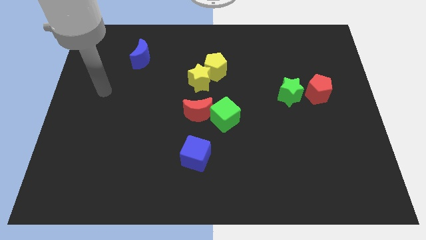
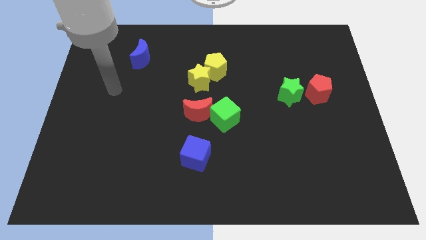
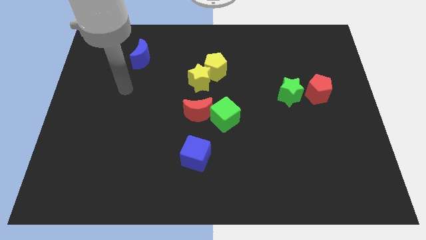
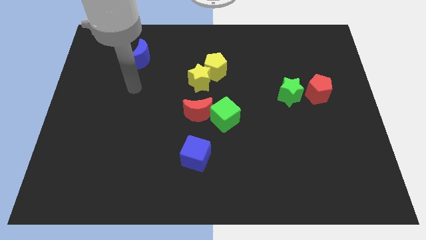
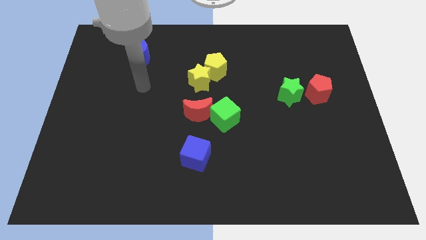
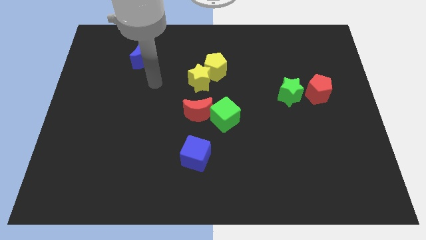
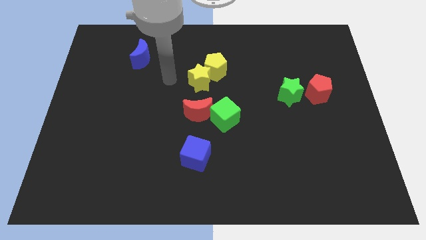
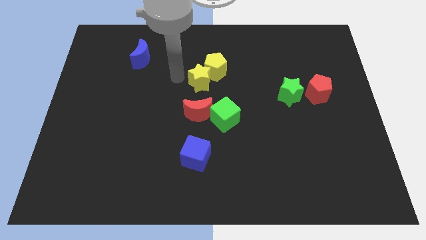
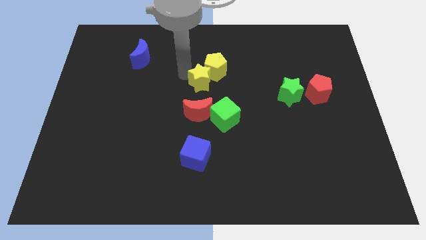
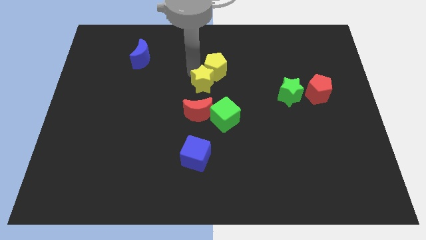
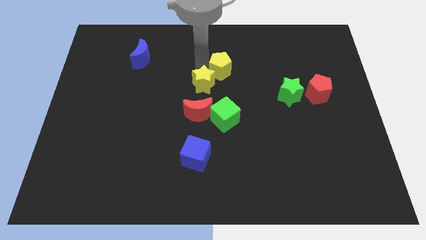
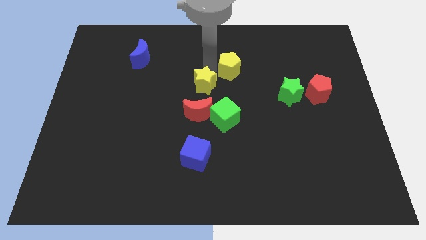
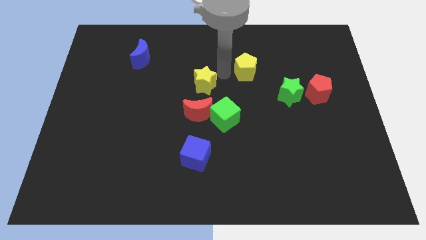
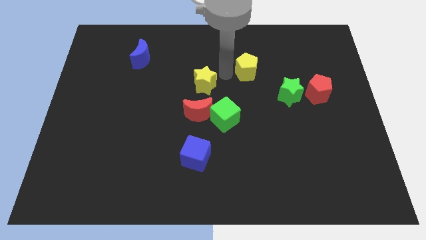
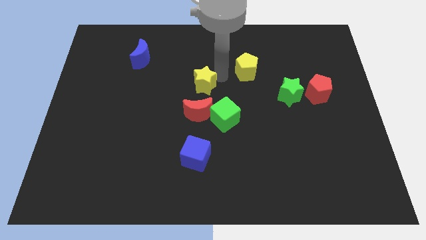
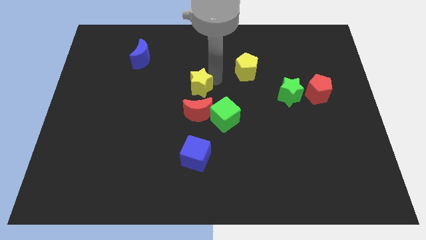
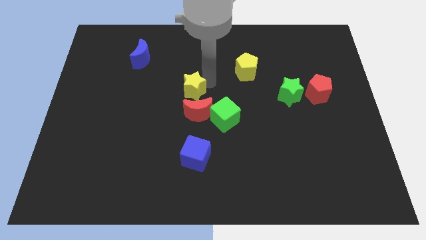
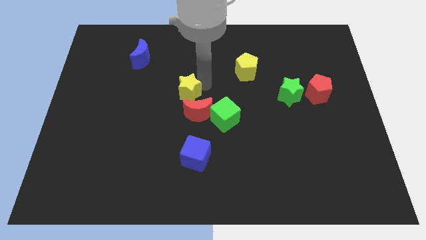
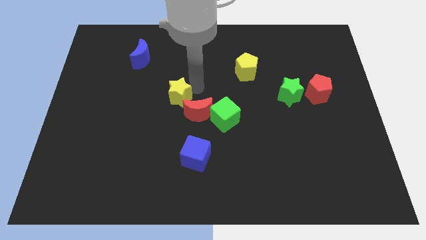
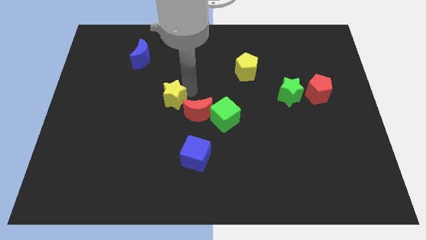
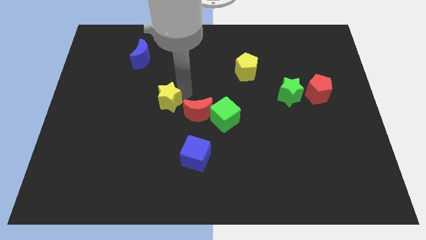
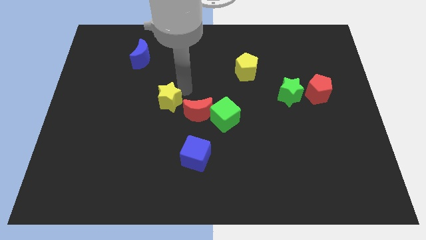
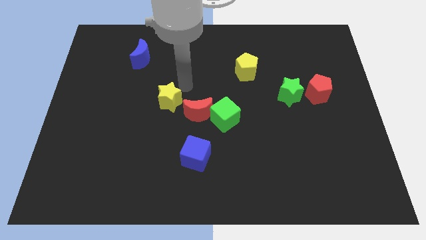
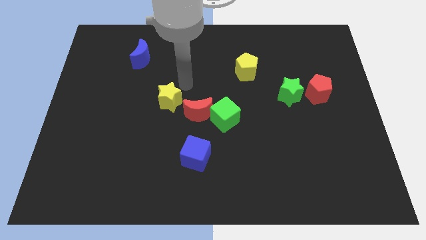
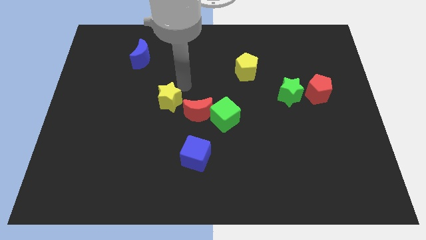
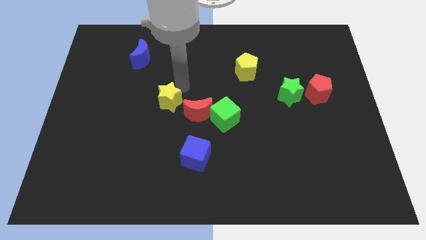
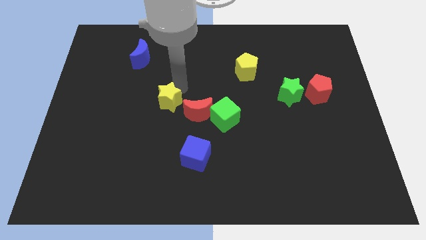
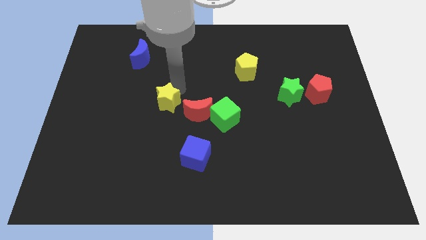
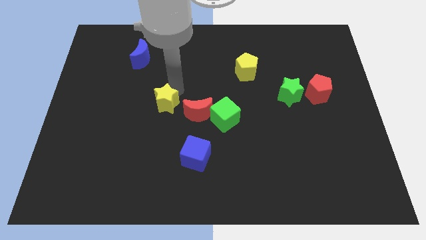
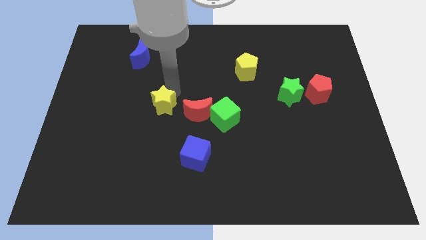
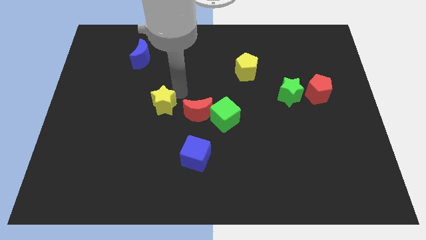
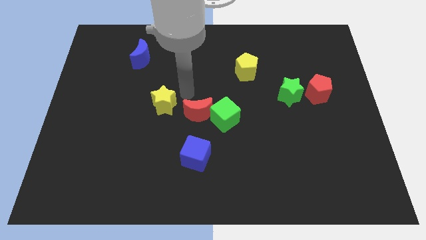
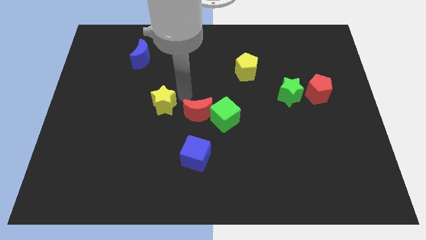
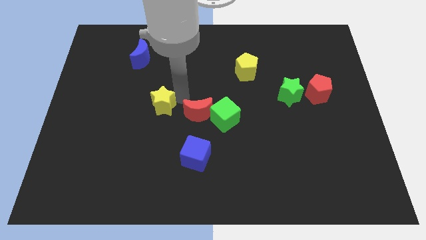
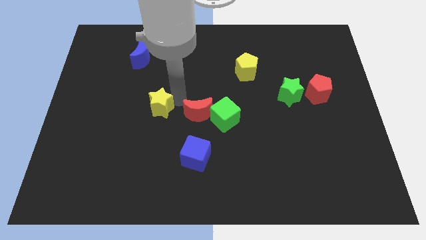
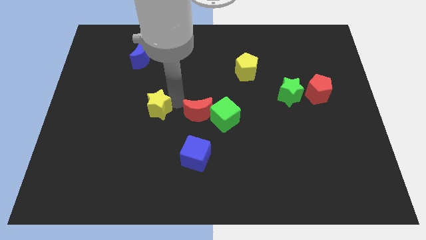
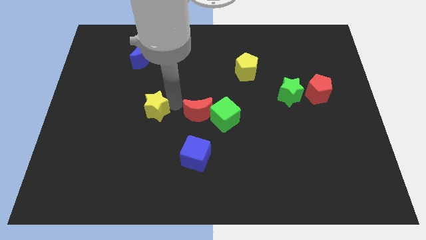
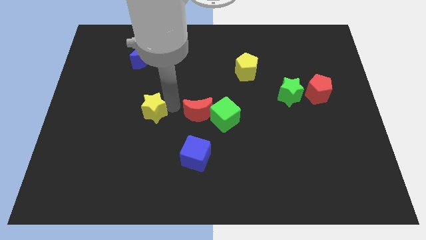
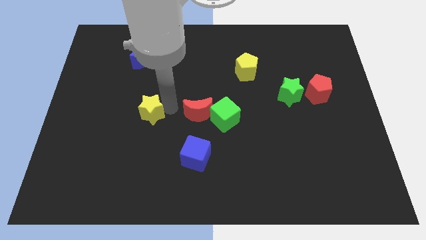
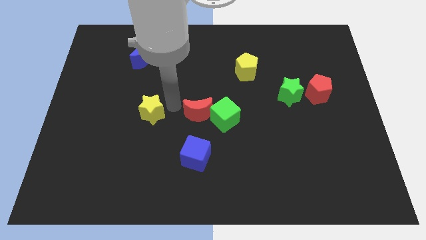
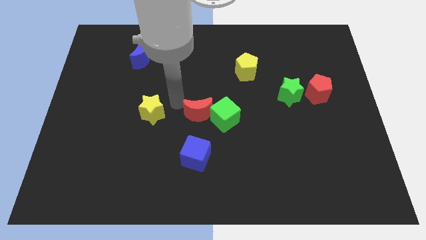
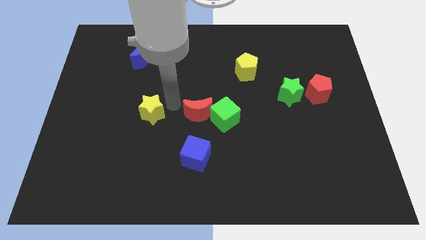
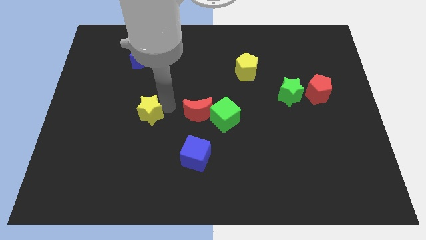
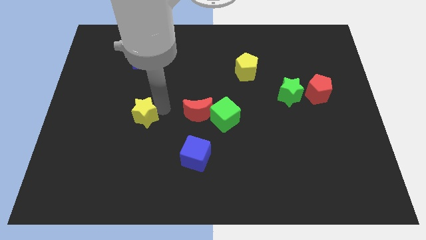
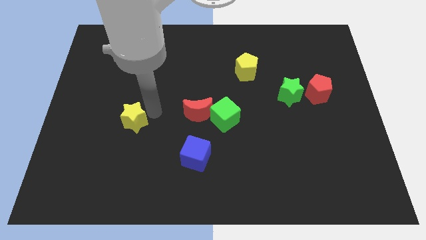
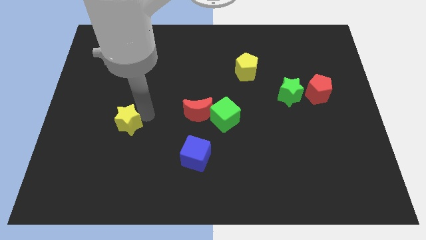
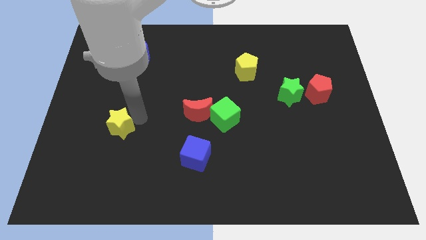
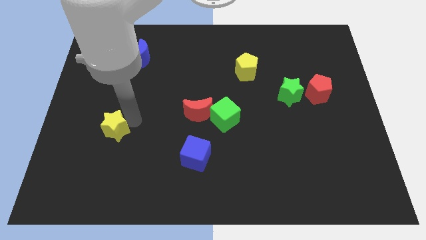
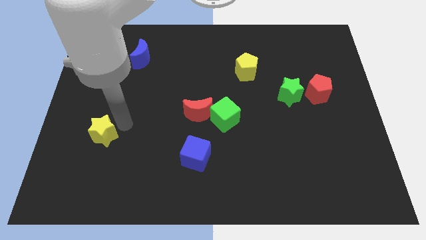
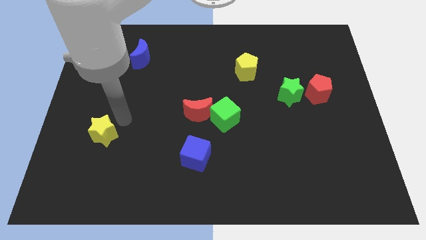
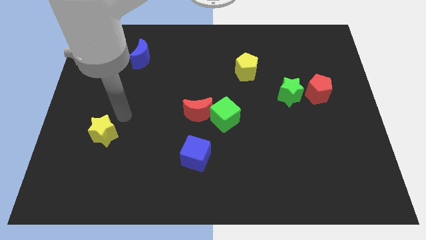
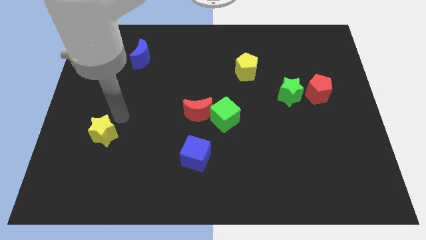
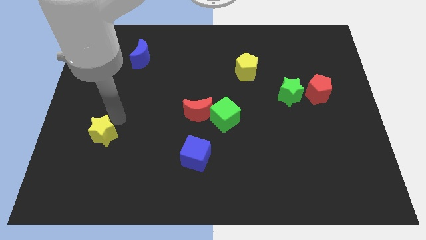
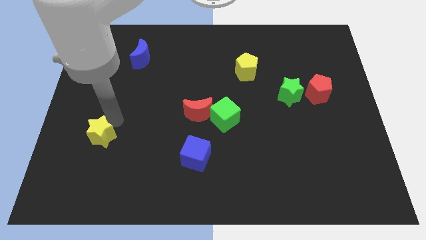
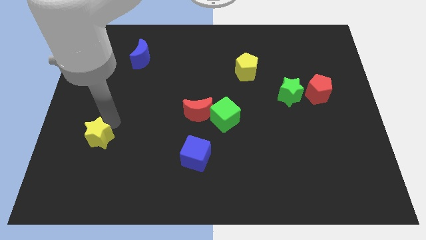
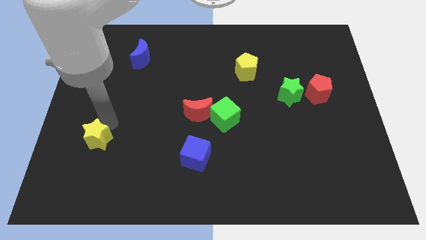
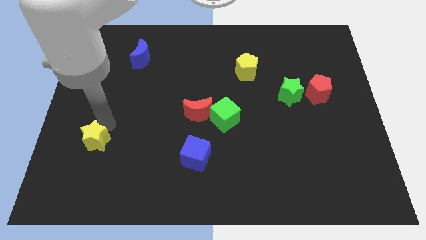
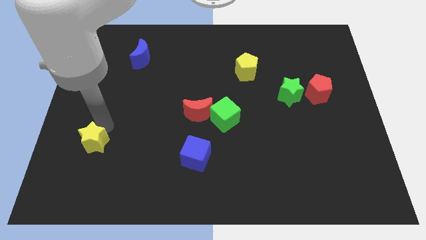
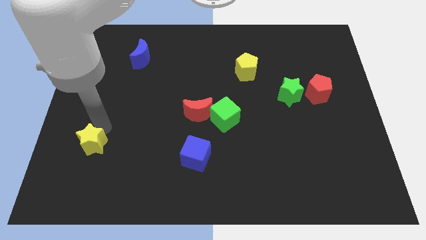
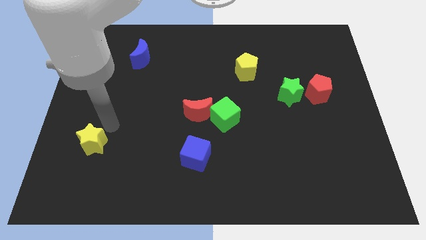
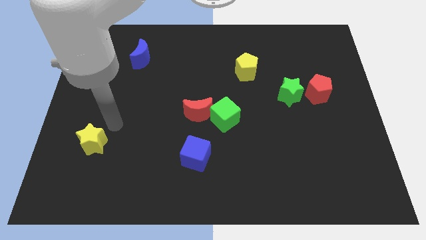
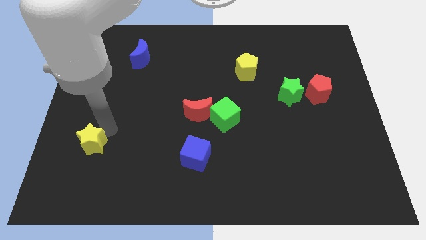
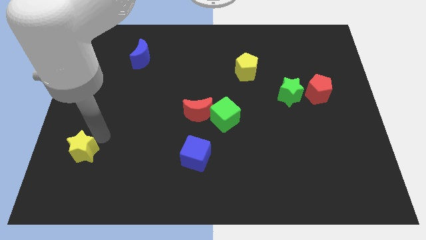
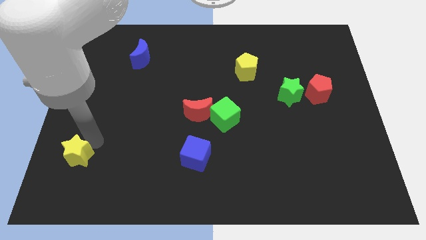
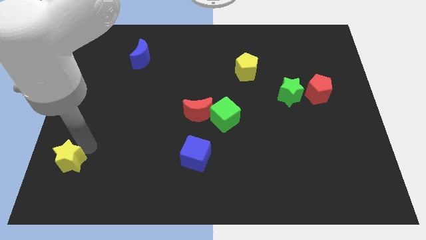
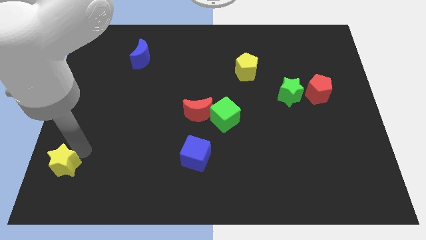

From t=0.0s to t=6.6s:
put the yellow star to the bottom left

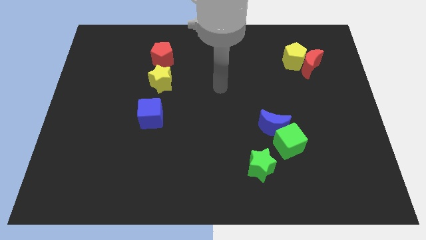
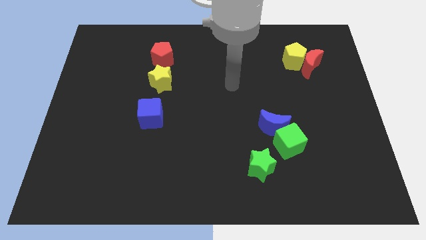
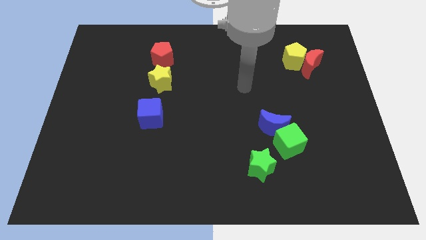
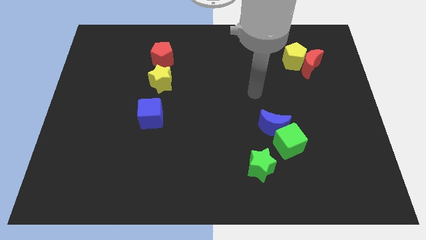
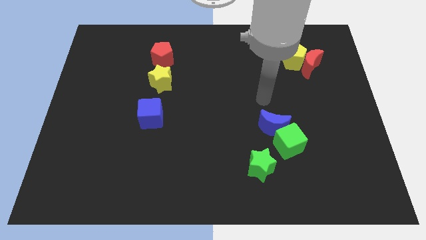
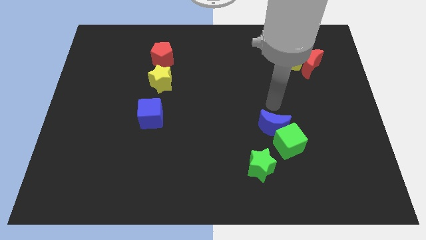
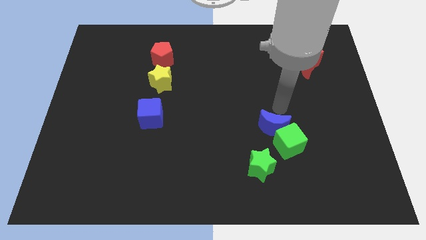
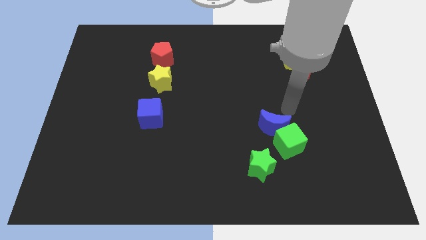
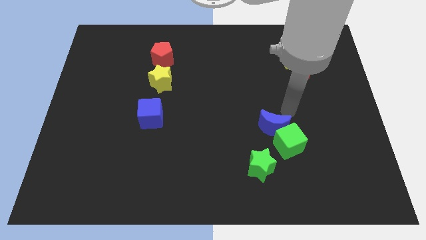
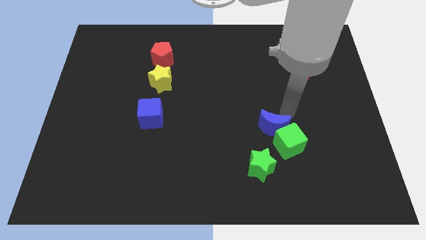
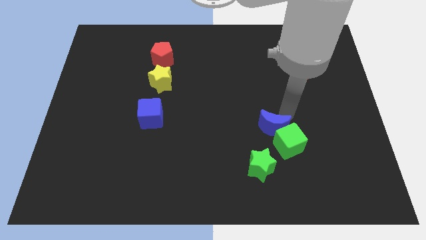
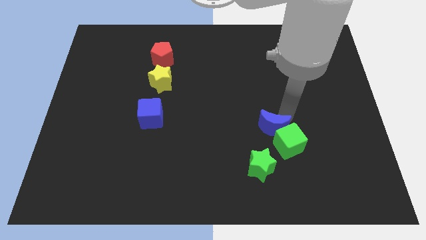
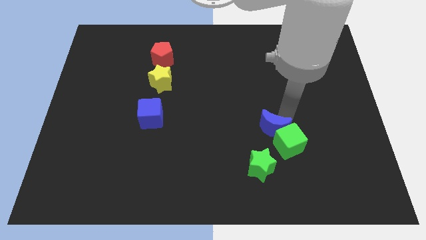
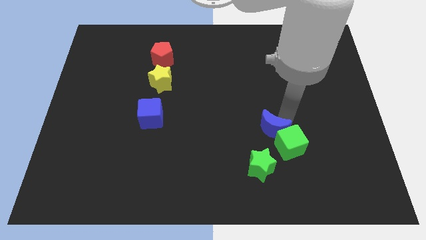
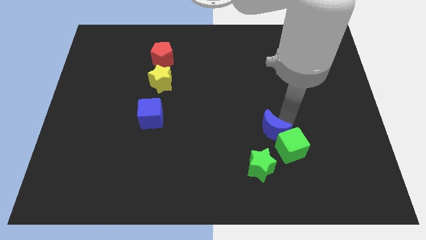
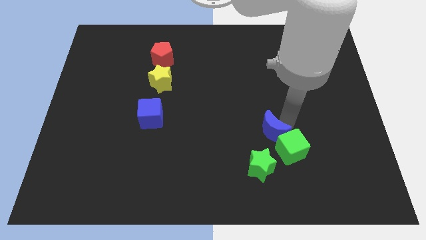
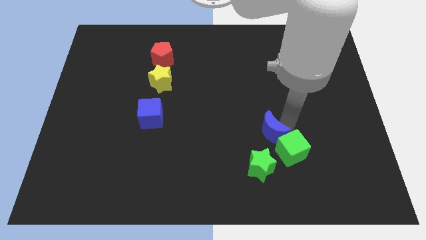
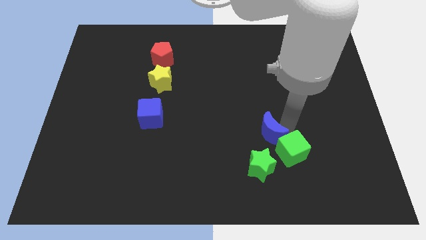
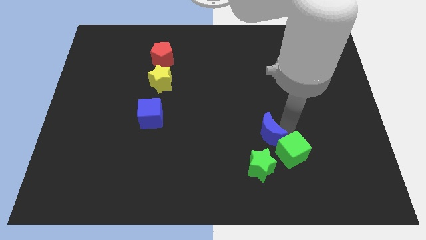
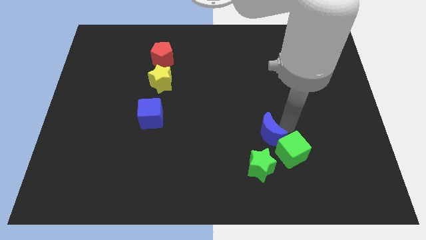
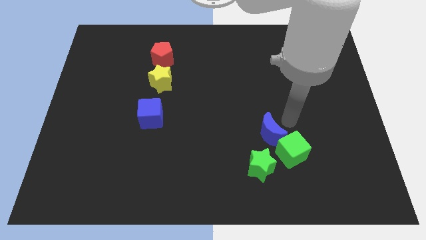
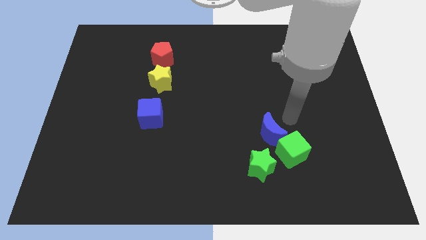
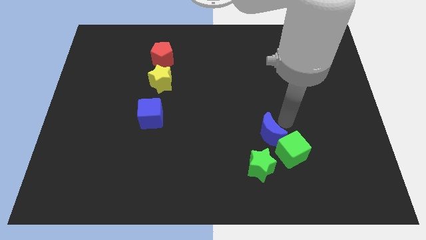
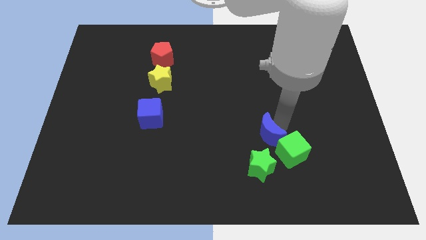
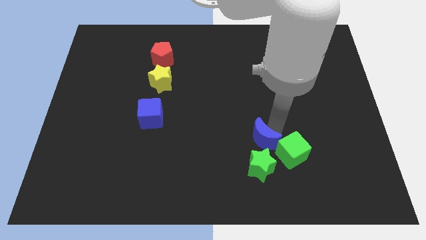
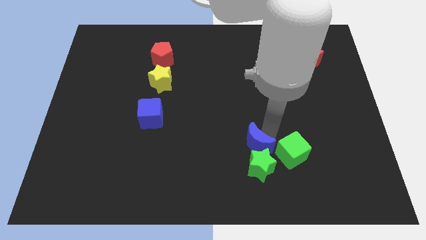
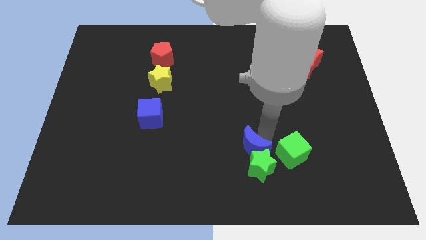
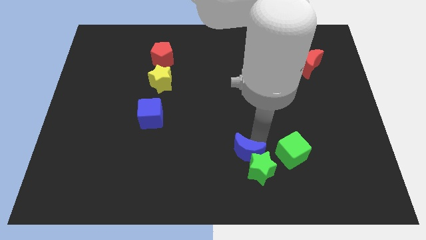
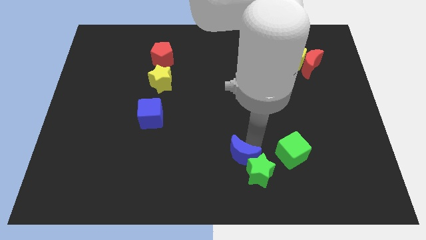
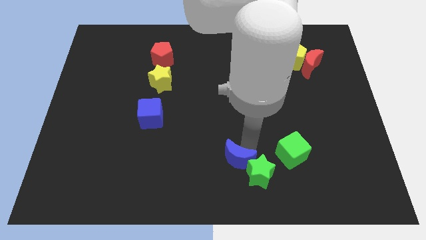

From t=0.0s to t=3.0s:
push the blue moon to the bottom side
